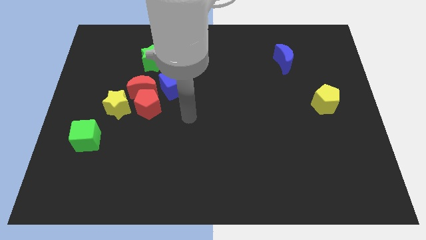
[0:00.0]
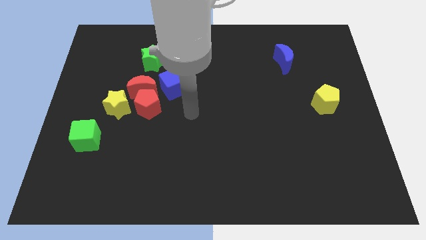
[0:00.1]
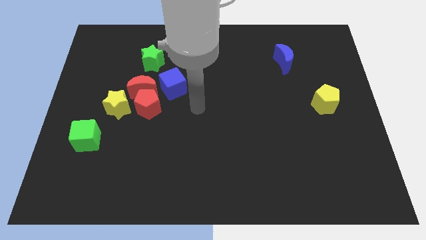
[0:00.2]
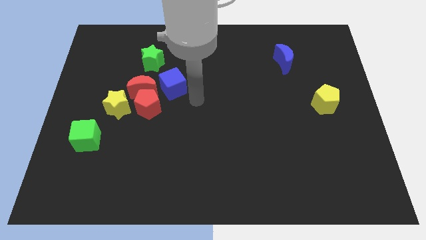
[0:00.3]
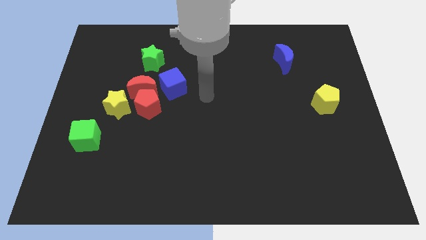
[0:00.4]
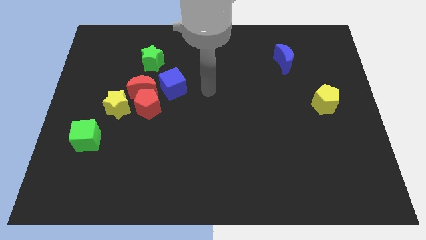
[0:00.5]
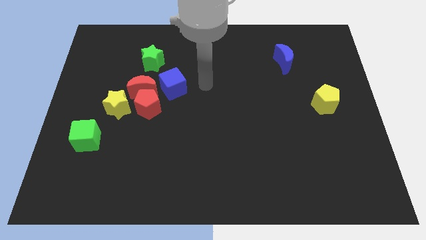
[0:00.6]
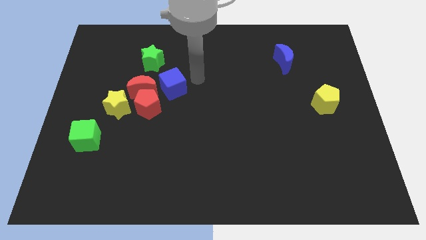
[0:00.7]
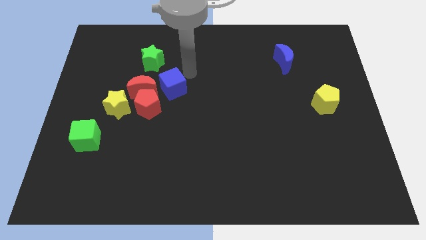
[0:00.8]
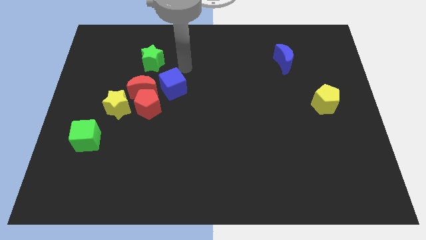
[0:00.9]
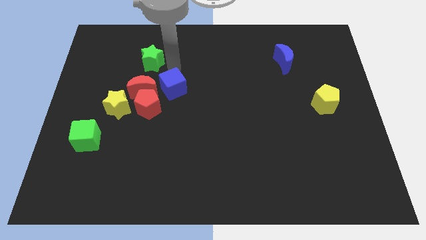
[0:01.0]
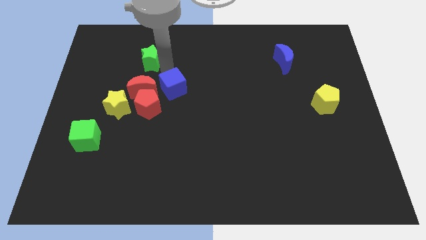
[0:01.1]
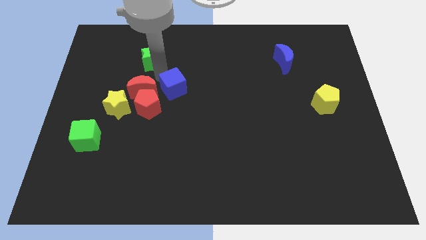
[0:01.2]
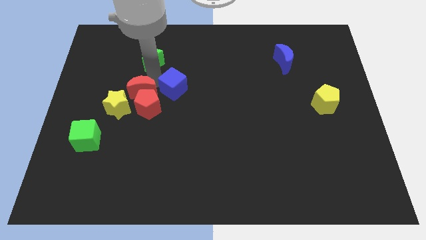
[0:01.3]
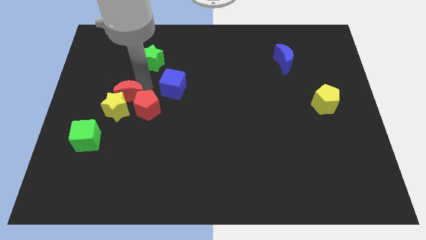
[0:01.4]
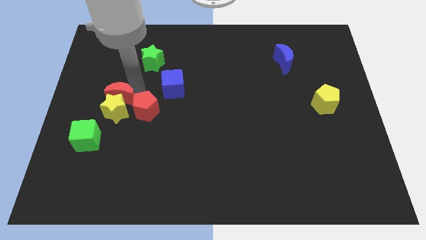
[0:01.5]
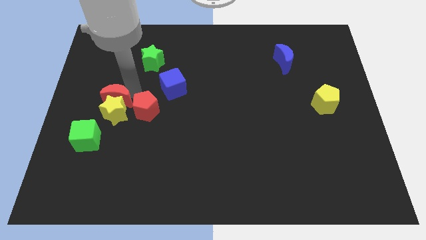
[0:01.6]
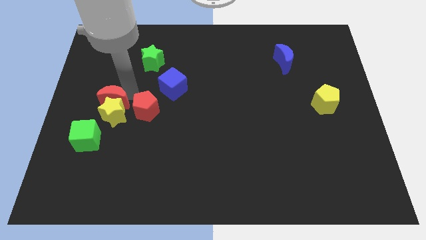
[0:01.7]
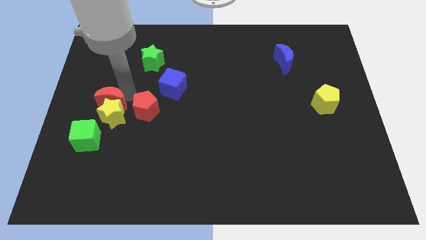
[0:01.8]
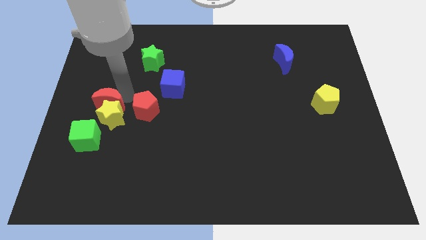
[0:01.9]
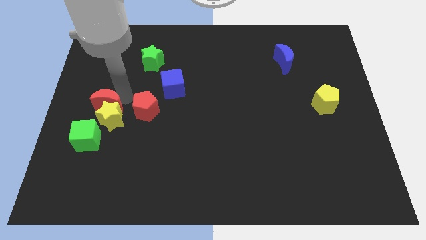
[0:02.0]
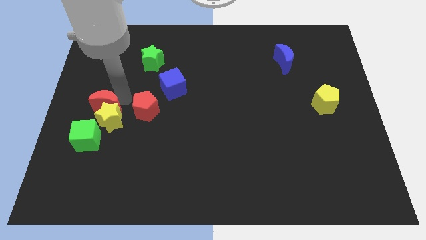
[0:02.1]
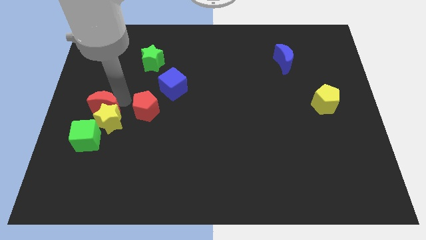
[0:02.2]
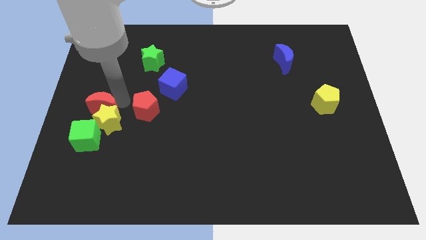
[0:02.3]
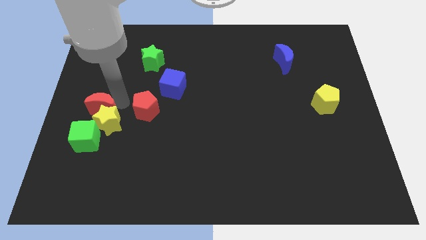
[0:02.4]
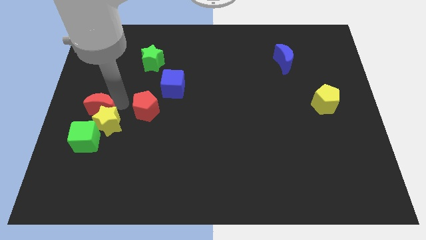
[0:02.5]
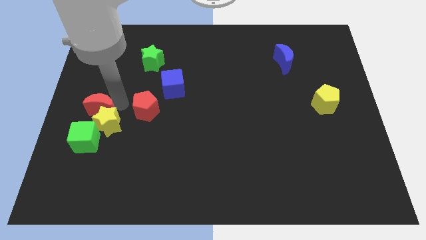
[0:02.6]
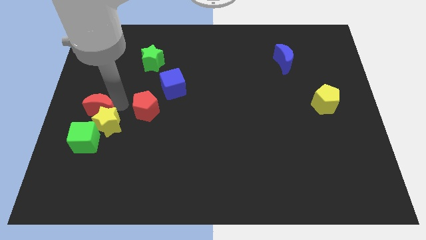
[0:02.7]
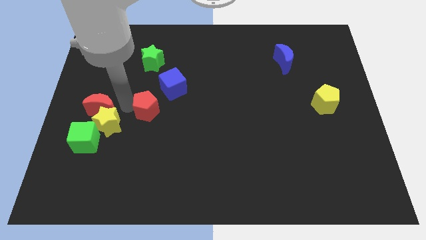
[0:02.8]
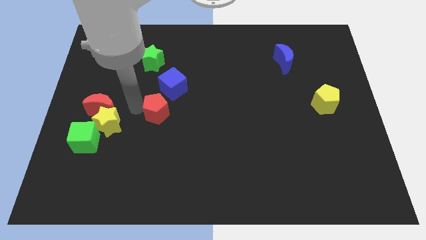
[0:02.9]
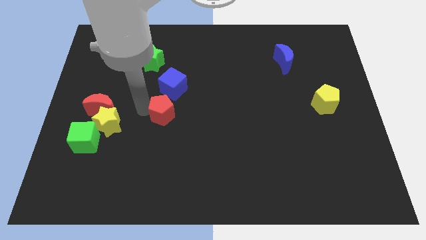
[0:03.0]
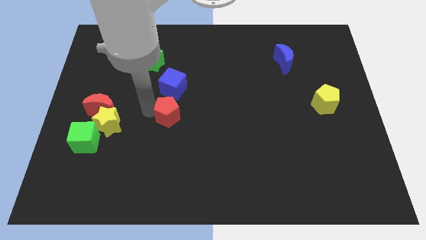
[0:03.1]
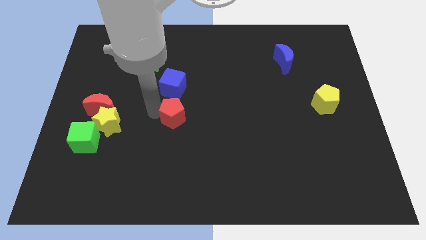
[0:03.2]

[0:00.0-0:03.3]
move the red pentagon away from the group of blocks

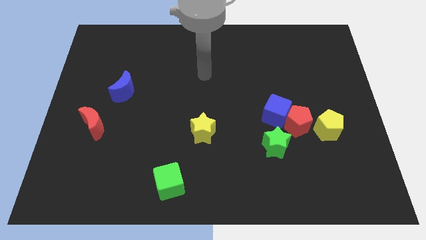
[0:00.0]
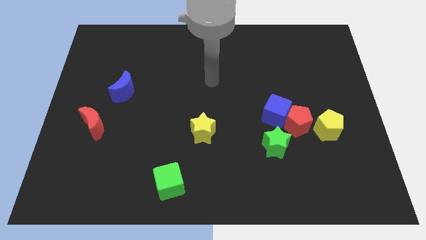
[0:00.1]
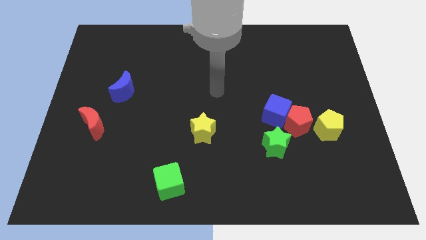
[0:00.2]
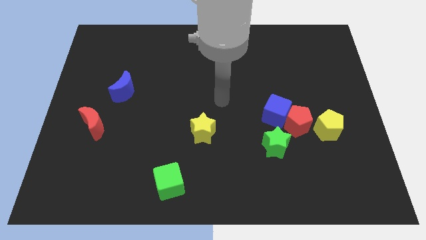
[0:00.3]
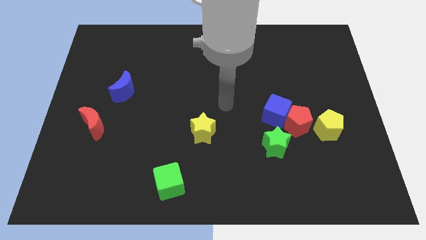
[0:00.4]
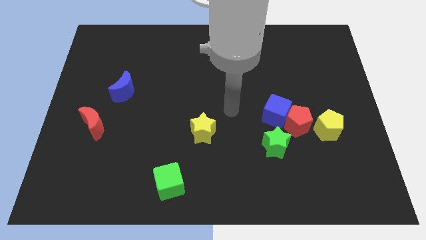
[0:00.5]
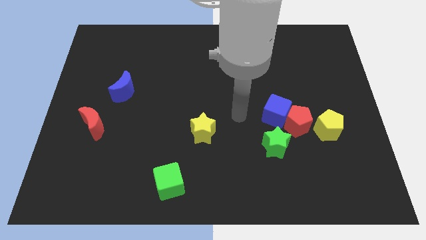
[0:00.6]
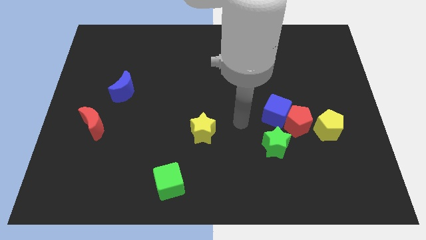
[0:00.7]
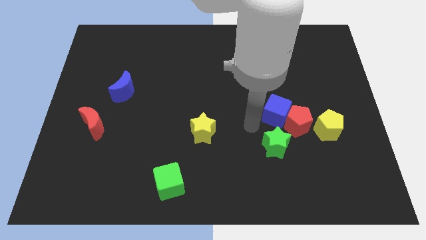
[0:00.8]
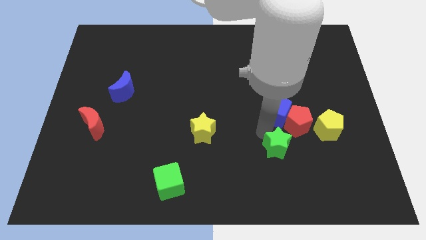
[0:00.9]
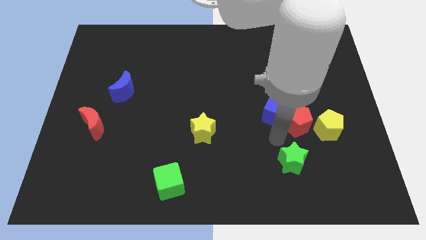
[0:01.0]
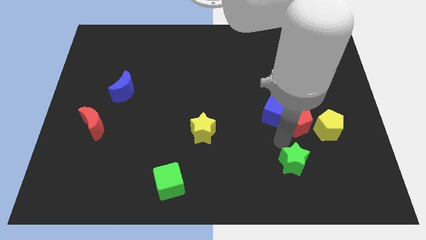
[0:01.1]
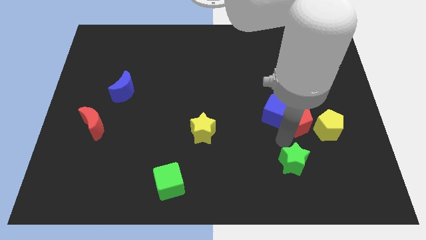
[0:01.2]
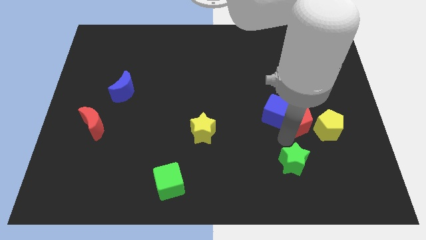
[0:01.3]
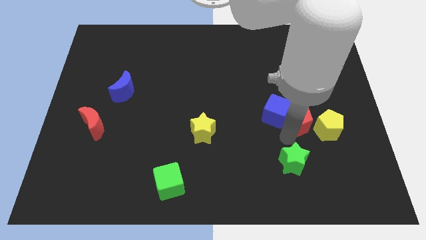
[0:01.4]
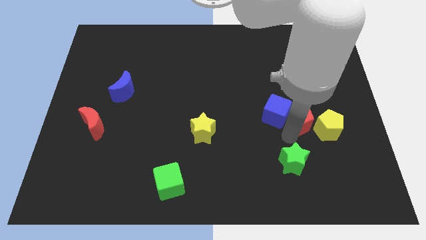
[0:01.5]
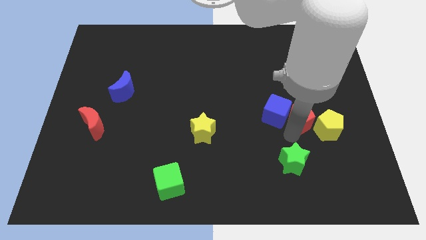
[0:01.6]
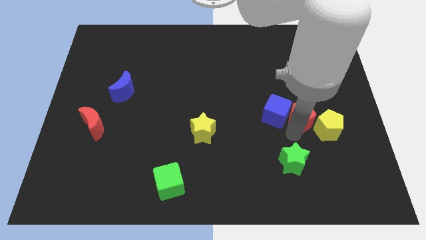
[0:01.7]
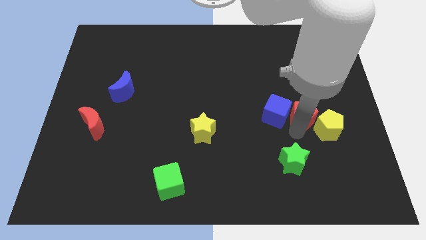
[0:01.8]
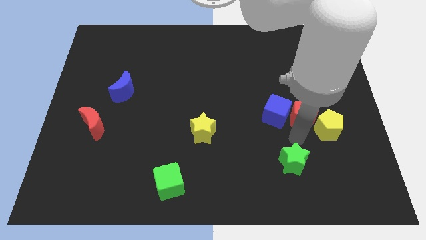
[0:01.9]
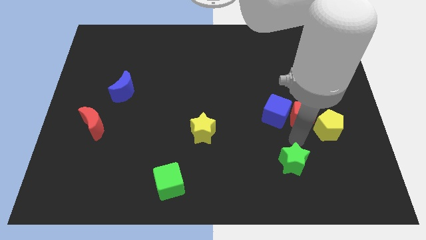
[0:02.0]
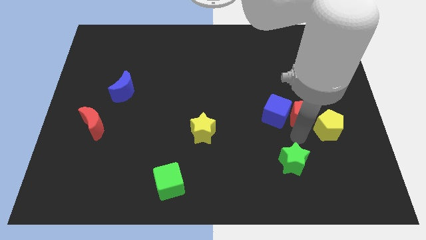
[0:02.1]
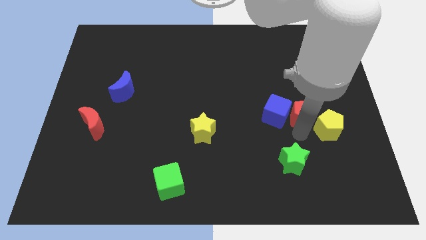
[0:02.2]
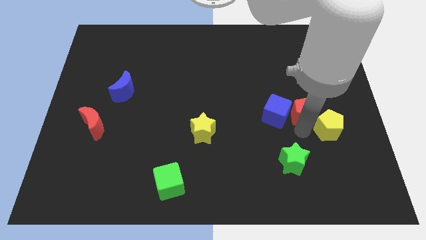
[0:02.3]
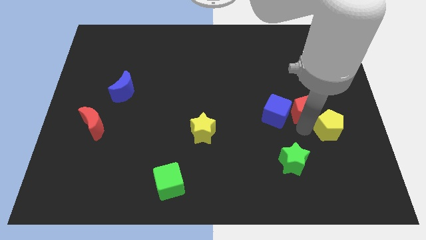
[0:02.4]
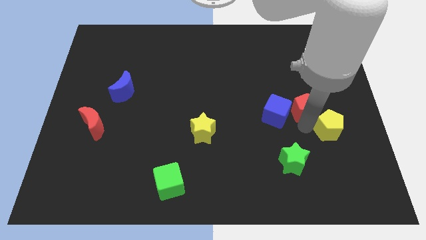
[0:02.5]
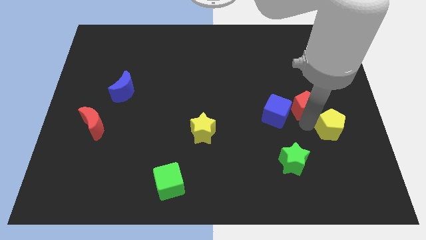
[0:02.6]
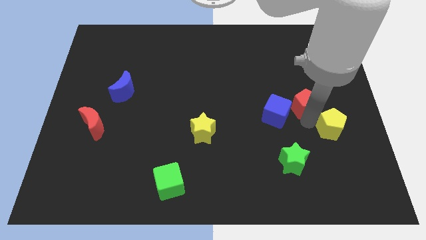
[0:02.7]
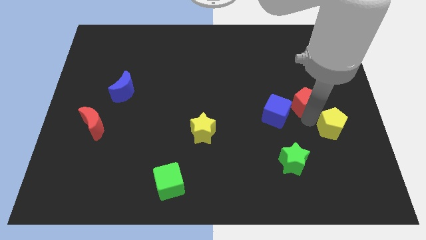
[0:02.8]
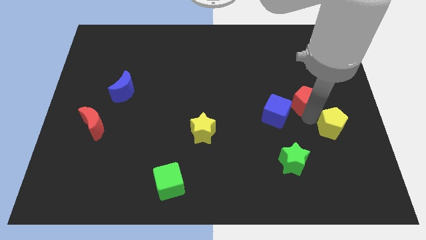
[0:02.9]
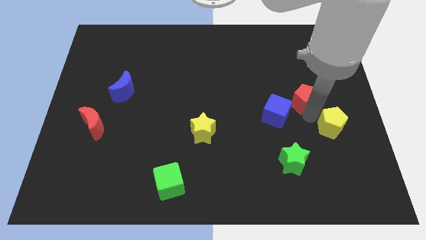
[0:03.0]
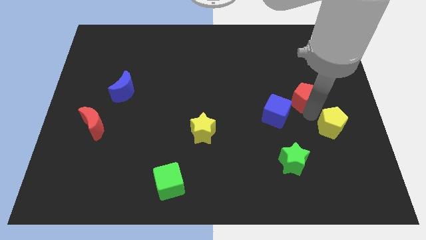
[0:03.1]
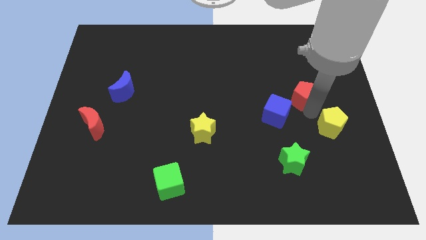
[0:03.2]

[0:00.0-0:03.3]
separate the red pentagon from the group

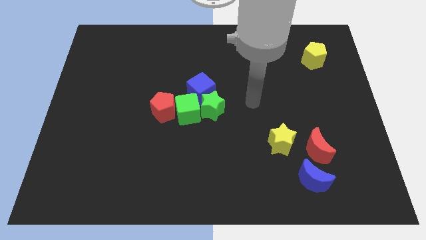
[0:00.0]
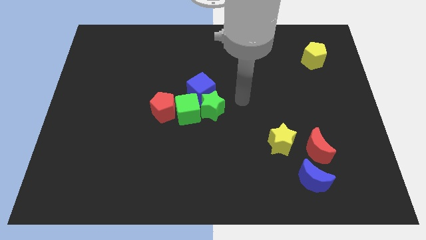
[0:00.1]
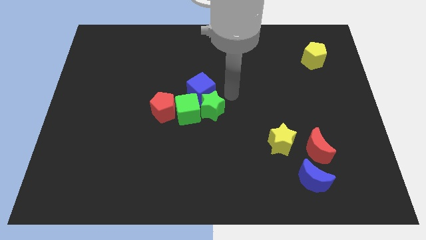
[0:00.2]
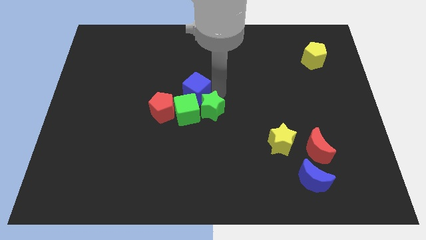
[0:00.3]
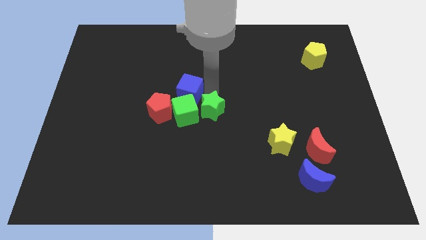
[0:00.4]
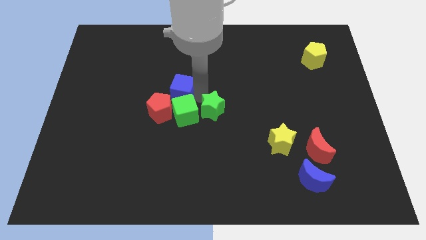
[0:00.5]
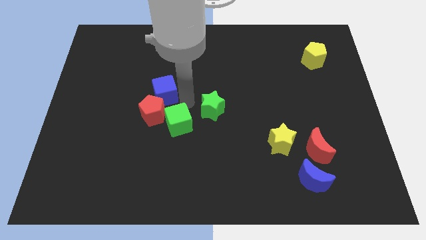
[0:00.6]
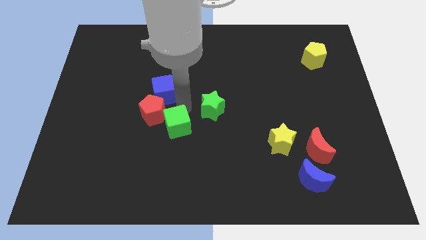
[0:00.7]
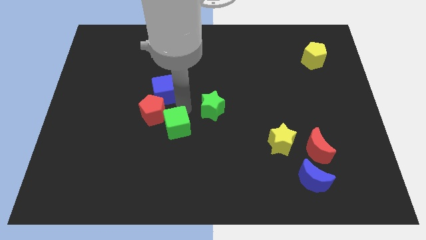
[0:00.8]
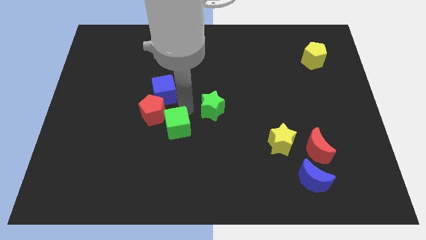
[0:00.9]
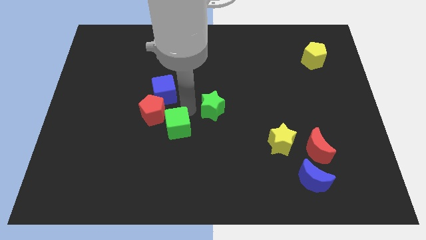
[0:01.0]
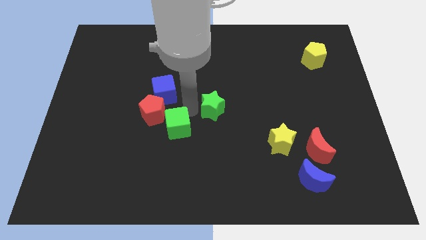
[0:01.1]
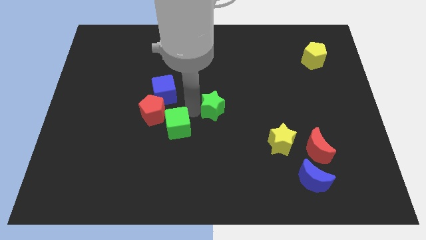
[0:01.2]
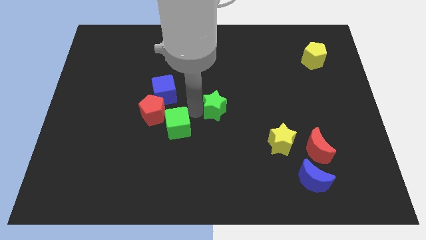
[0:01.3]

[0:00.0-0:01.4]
move the green star away from the green cube and blue cube

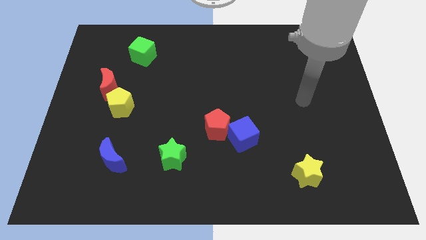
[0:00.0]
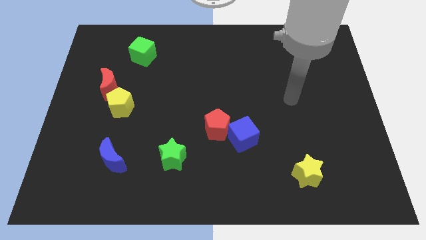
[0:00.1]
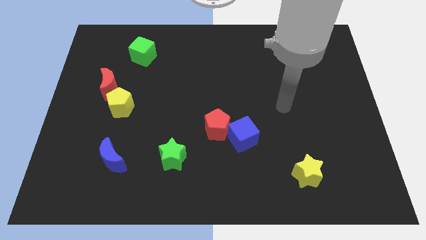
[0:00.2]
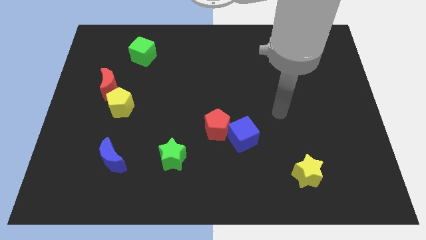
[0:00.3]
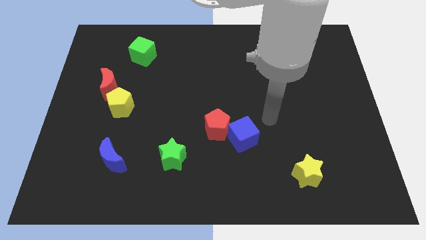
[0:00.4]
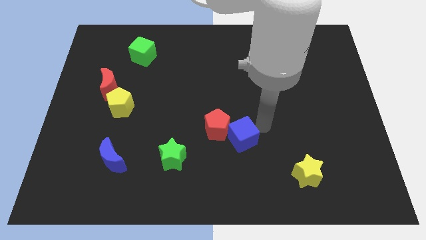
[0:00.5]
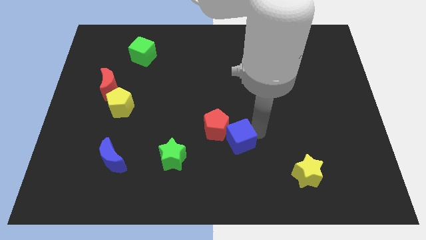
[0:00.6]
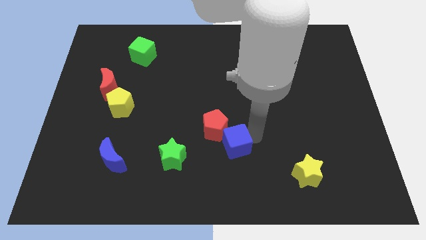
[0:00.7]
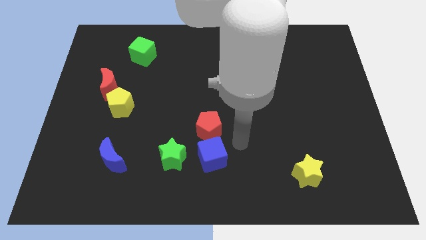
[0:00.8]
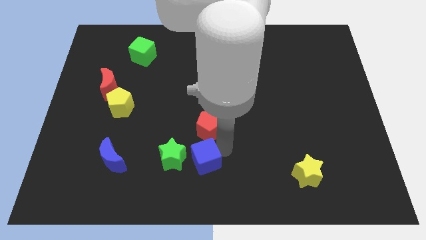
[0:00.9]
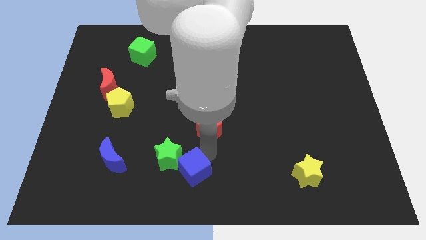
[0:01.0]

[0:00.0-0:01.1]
separate the red pentagon from the blue cube

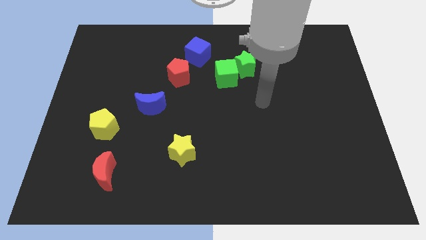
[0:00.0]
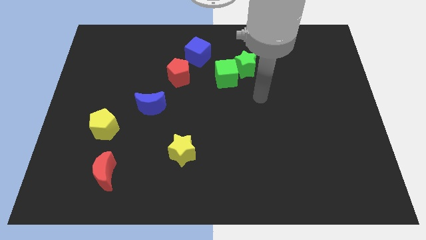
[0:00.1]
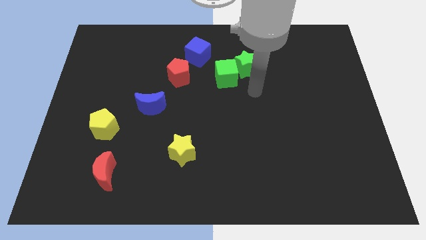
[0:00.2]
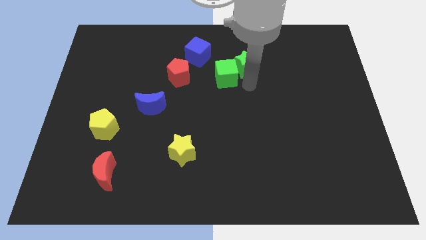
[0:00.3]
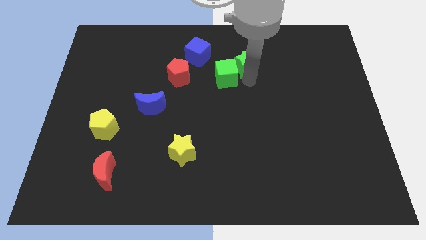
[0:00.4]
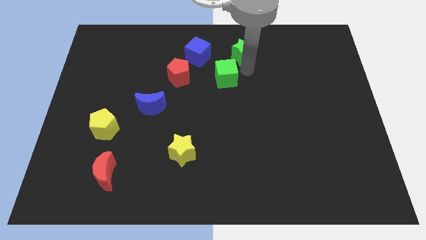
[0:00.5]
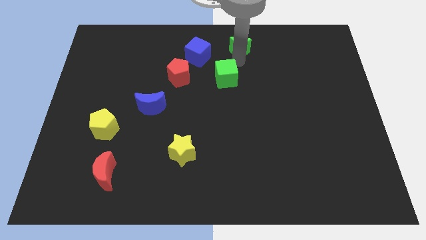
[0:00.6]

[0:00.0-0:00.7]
separate the green cube from the green star
